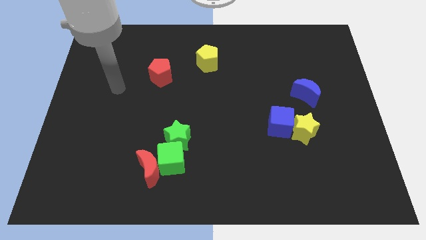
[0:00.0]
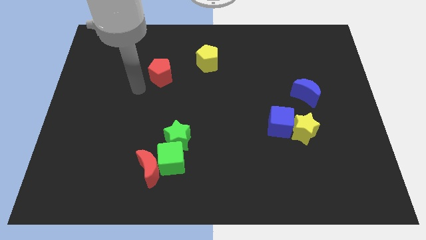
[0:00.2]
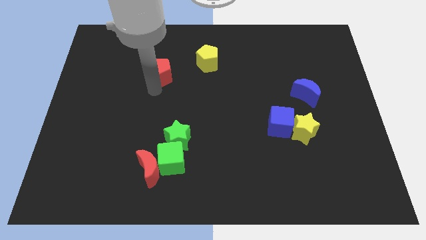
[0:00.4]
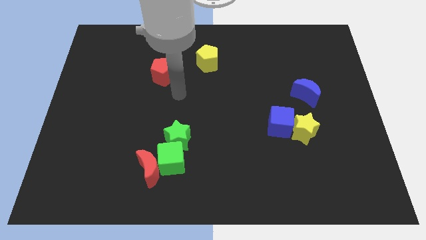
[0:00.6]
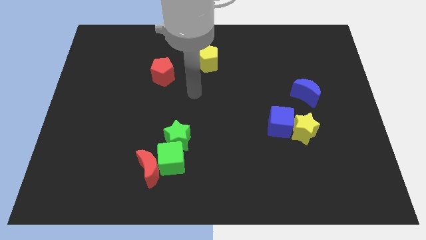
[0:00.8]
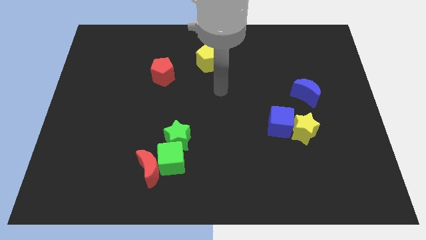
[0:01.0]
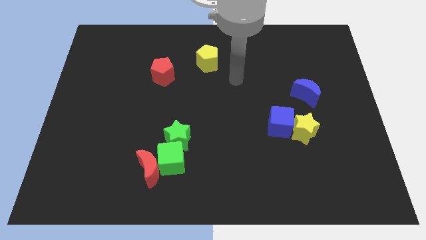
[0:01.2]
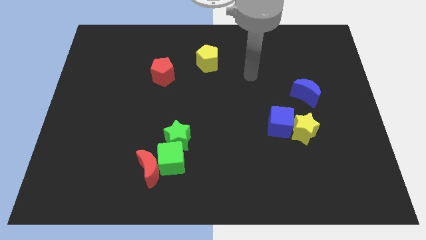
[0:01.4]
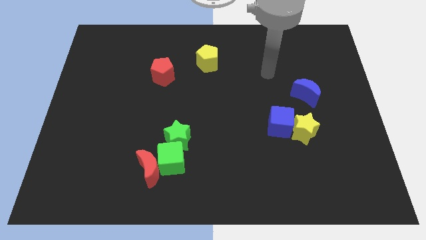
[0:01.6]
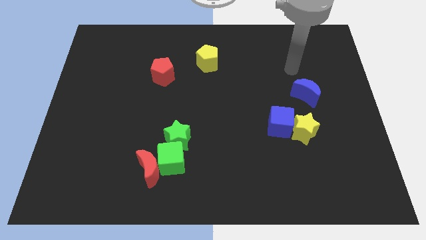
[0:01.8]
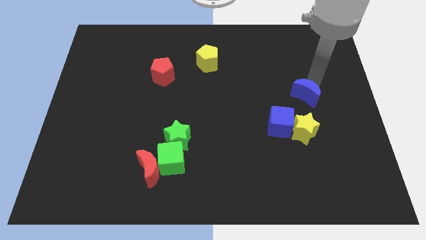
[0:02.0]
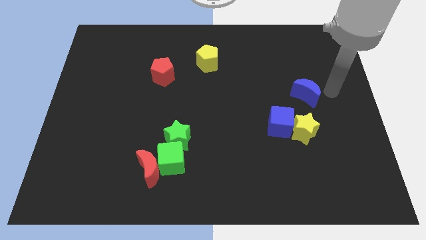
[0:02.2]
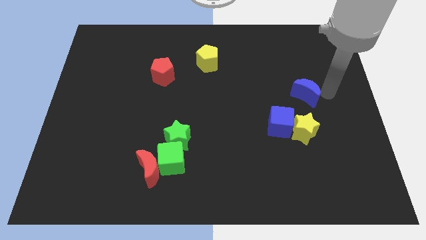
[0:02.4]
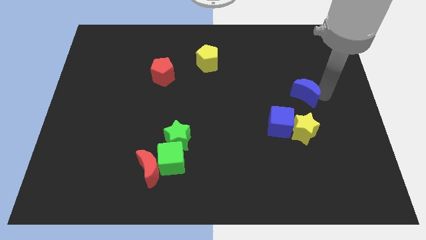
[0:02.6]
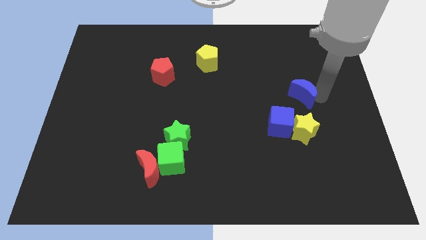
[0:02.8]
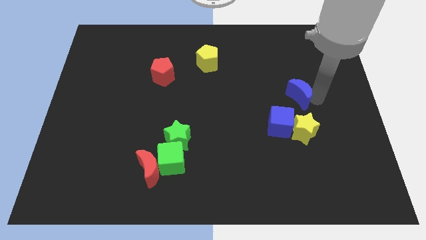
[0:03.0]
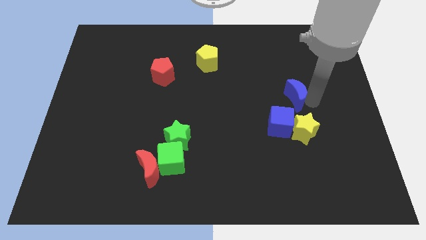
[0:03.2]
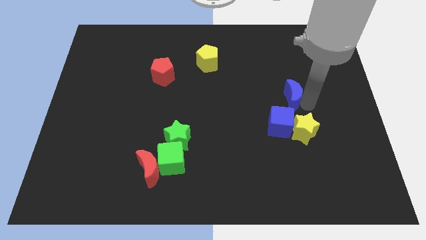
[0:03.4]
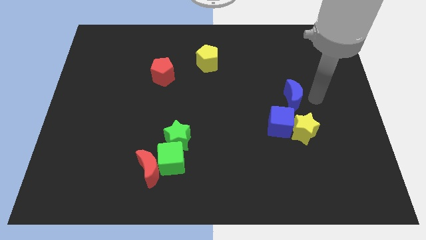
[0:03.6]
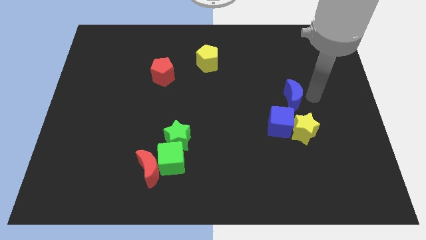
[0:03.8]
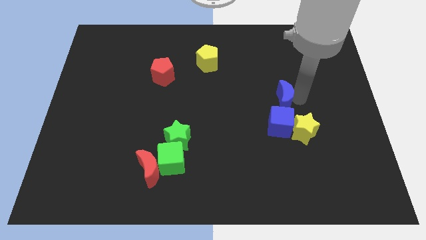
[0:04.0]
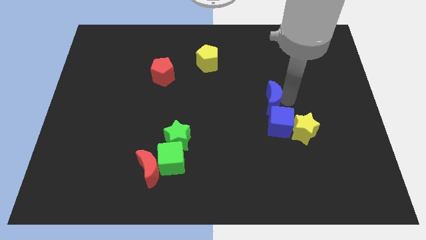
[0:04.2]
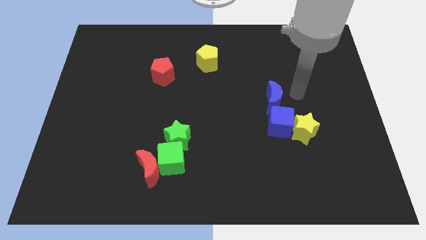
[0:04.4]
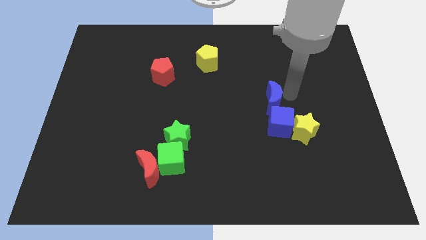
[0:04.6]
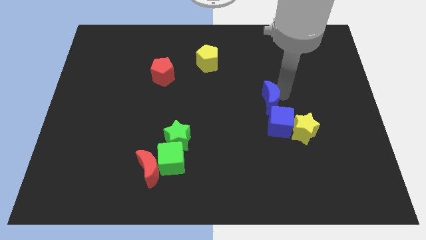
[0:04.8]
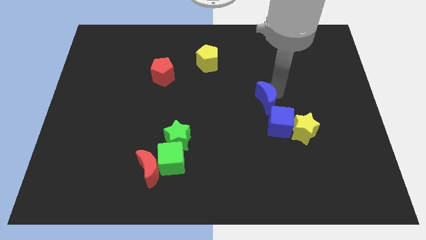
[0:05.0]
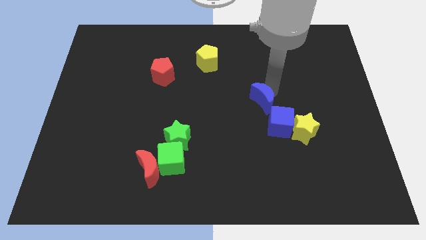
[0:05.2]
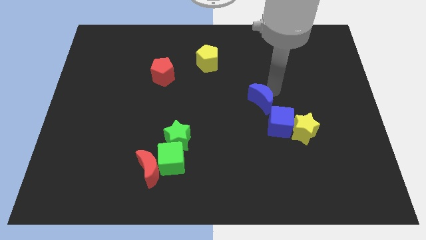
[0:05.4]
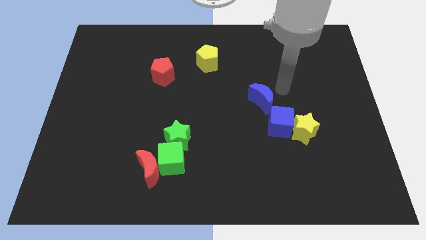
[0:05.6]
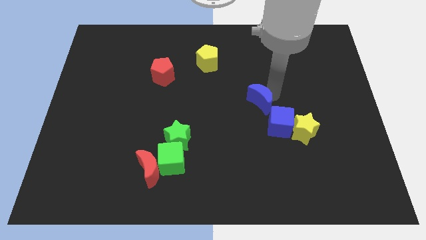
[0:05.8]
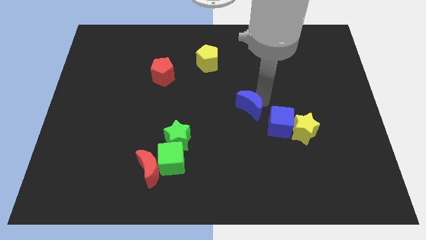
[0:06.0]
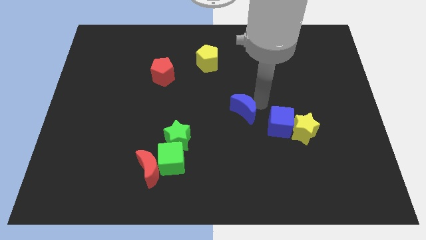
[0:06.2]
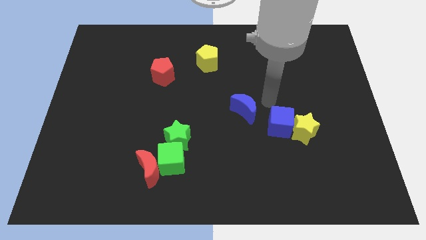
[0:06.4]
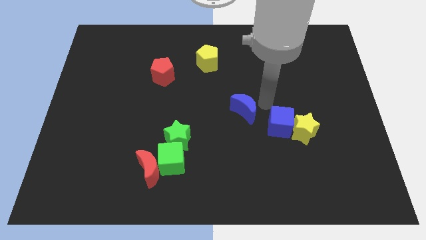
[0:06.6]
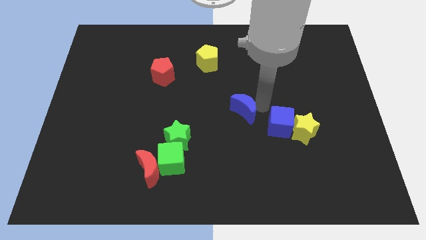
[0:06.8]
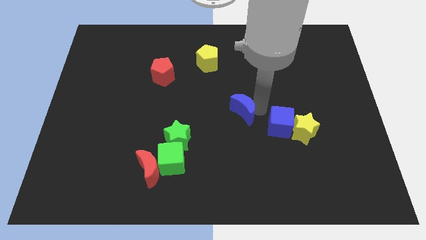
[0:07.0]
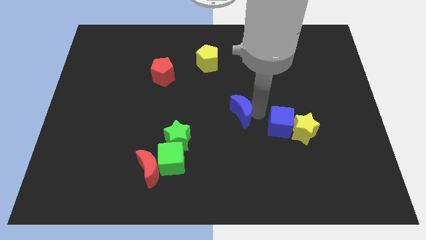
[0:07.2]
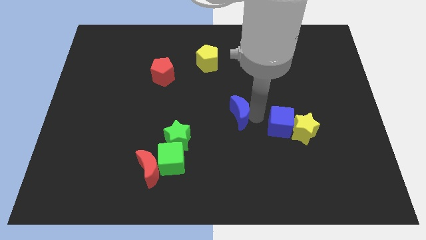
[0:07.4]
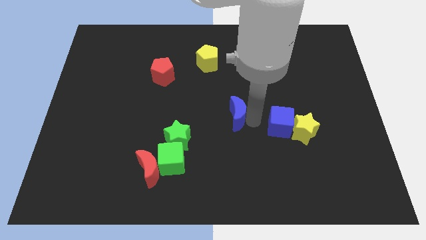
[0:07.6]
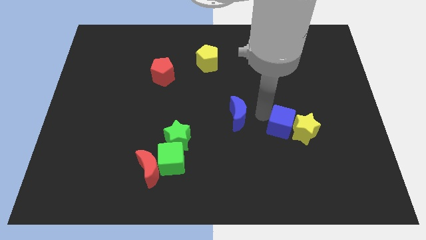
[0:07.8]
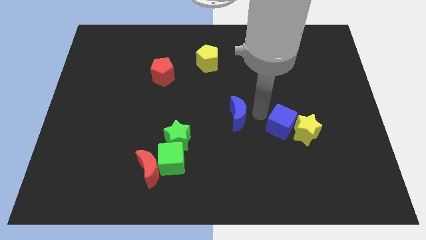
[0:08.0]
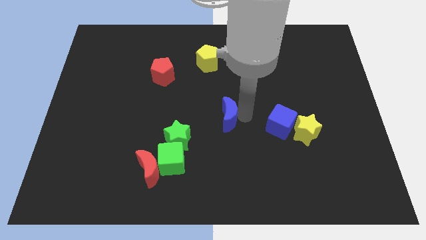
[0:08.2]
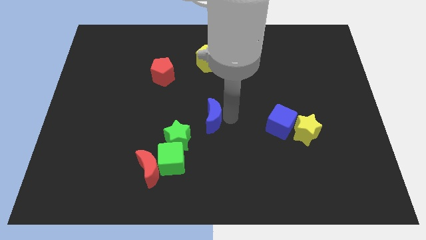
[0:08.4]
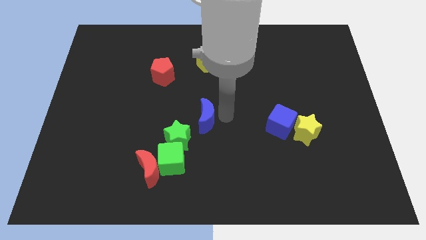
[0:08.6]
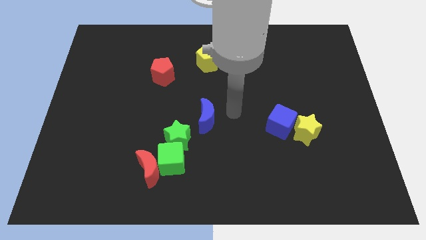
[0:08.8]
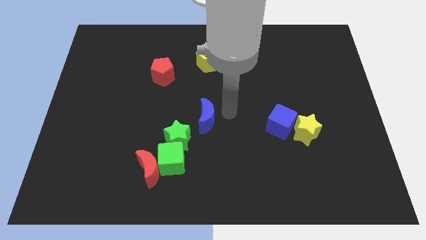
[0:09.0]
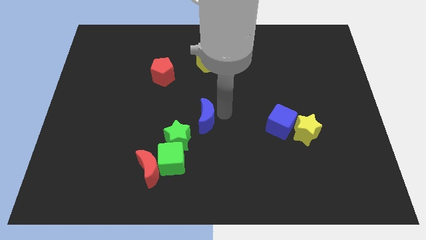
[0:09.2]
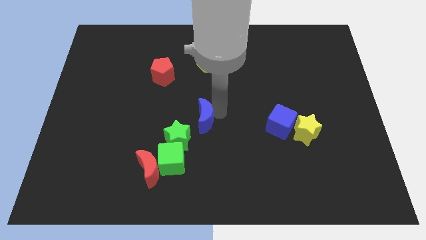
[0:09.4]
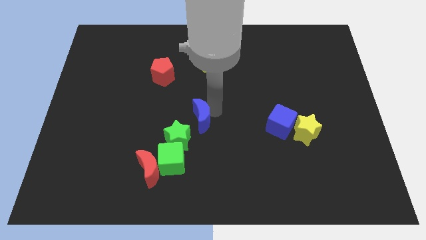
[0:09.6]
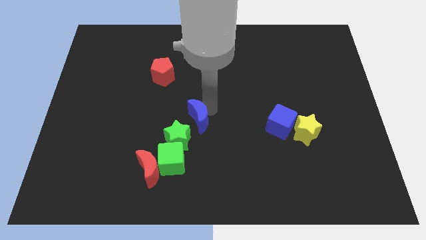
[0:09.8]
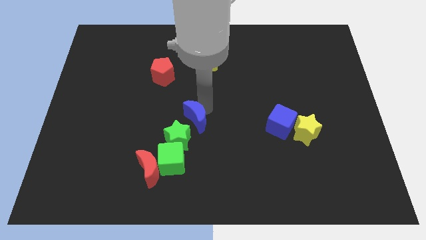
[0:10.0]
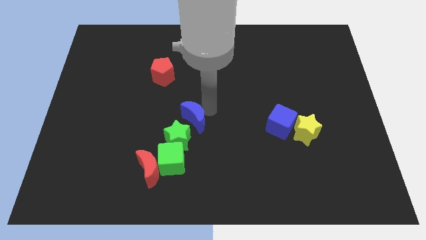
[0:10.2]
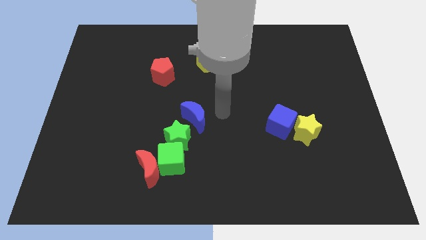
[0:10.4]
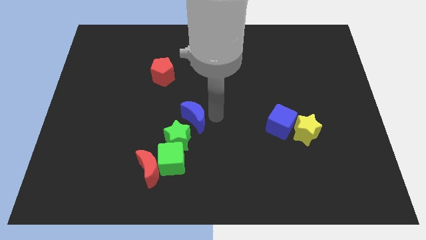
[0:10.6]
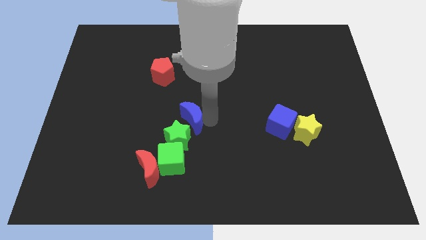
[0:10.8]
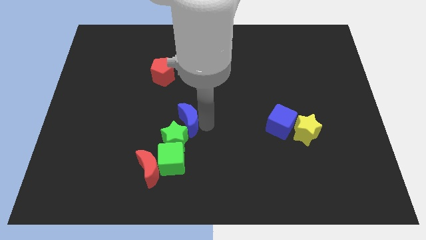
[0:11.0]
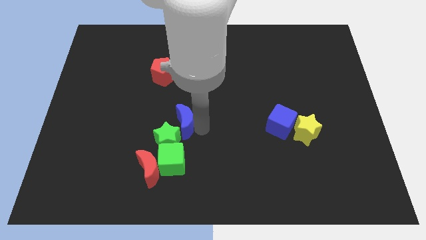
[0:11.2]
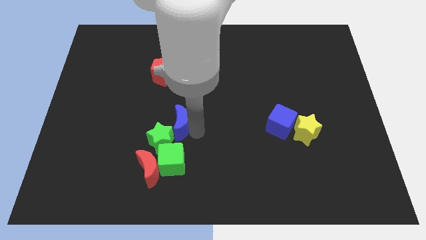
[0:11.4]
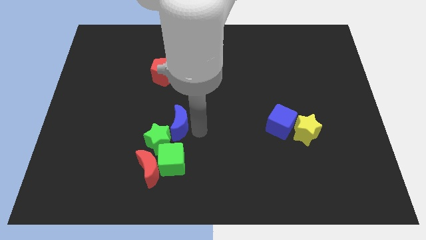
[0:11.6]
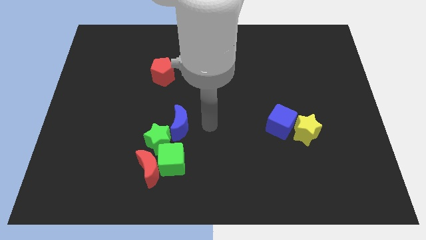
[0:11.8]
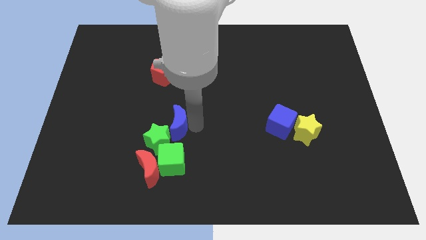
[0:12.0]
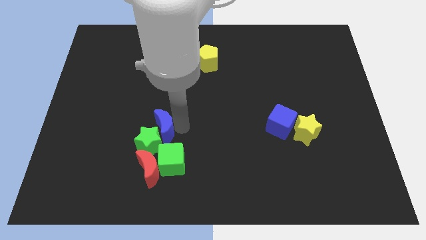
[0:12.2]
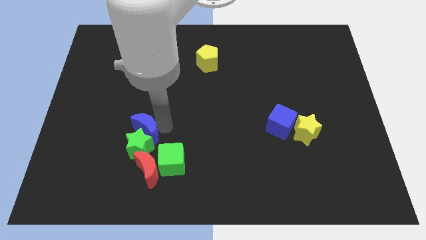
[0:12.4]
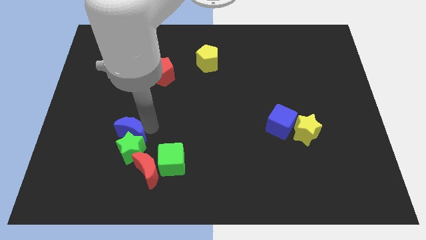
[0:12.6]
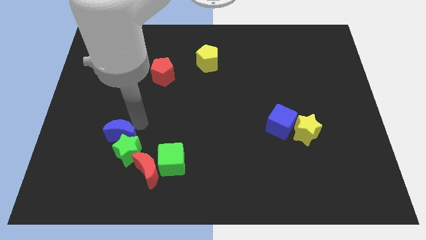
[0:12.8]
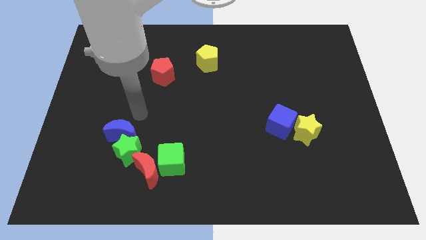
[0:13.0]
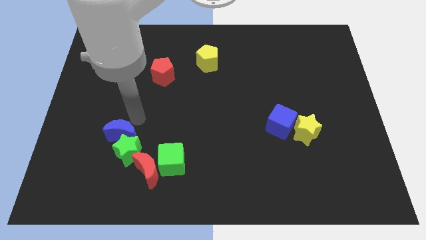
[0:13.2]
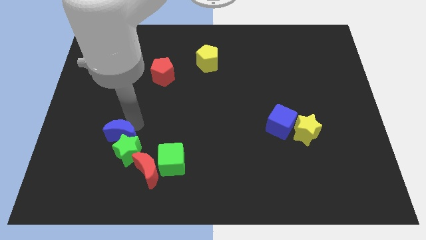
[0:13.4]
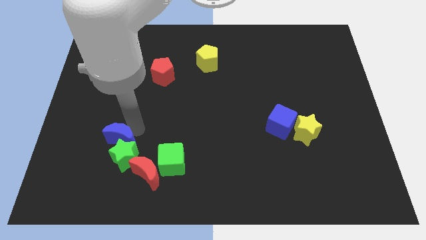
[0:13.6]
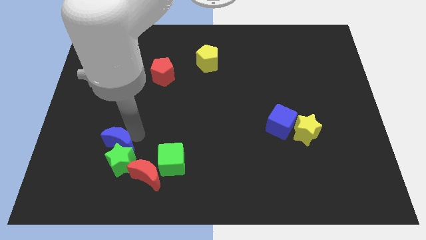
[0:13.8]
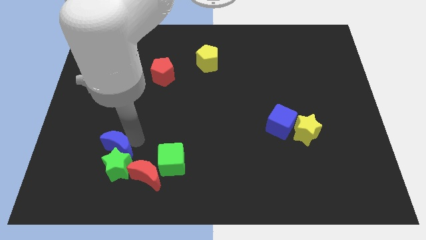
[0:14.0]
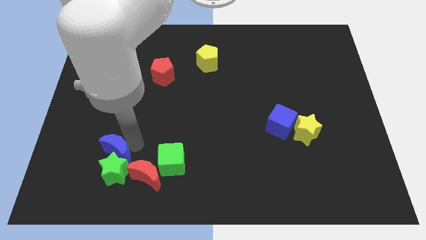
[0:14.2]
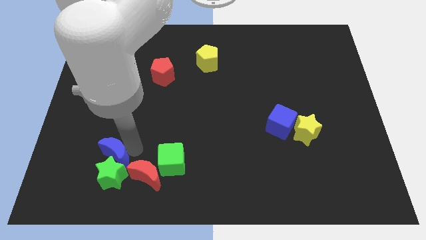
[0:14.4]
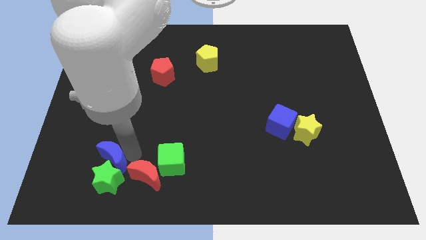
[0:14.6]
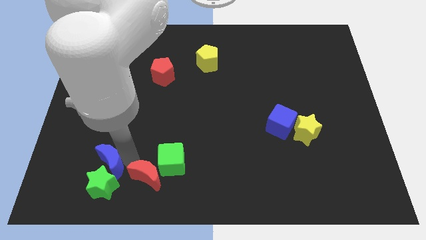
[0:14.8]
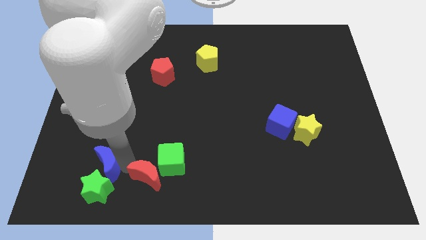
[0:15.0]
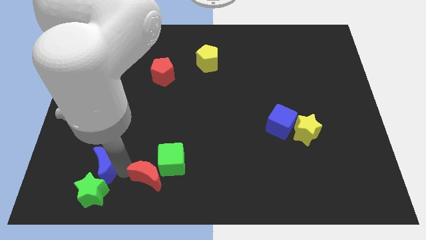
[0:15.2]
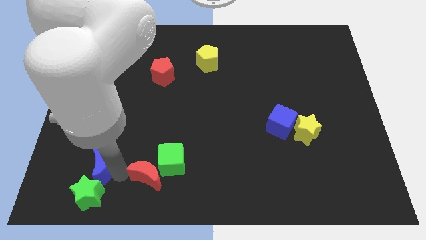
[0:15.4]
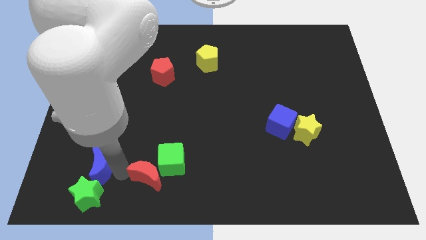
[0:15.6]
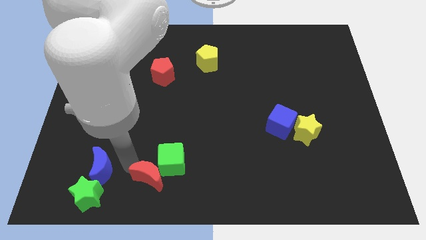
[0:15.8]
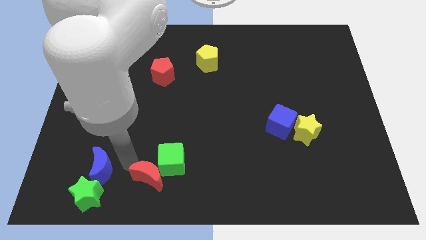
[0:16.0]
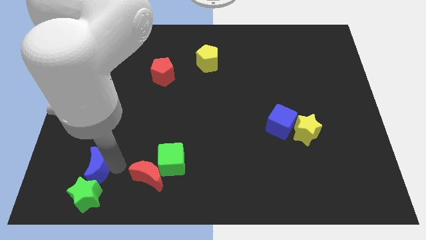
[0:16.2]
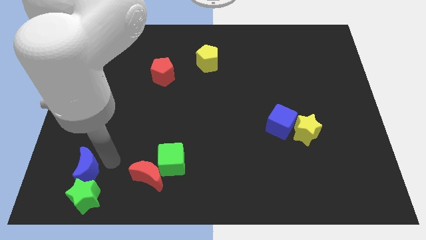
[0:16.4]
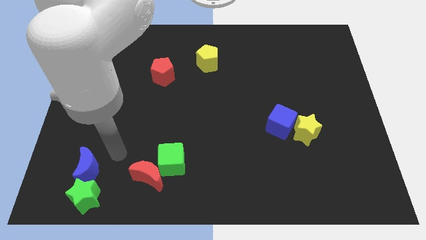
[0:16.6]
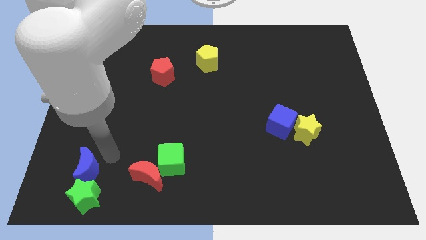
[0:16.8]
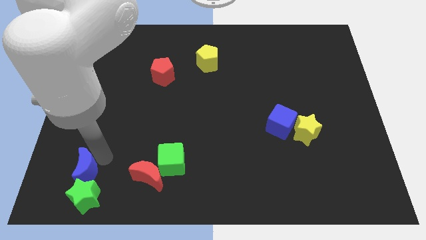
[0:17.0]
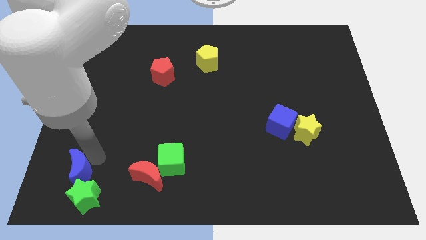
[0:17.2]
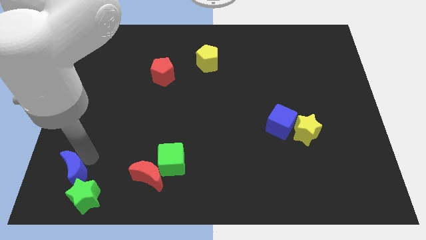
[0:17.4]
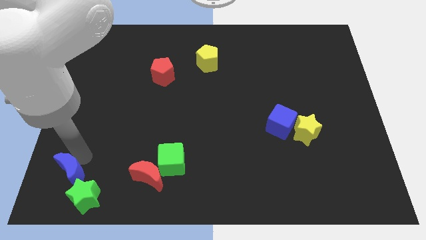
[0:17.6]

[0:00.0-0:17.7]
push the blue moon to the bottom left
